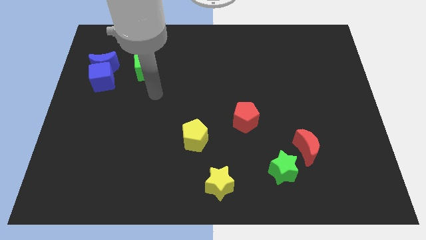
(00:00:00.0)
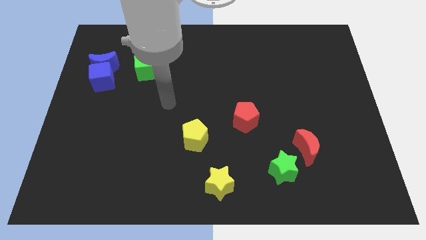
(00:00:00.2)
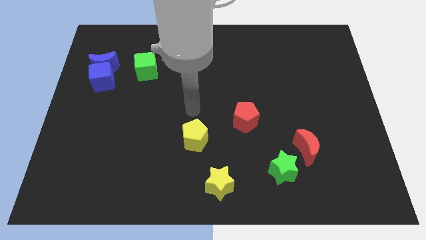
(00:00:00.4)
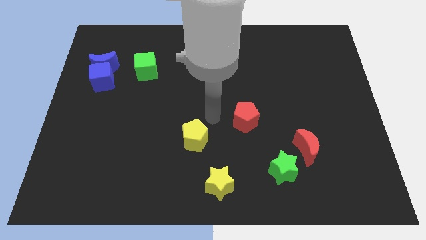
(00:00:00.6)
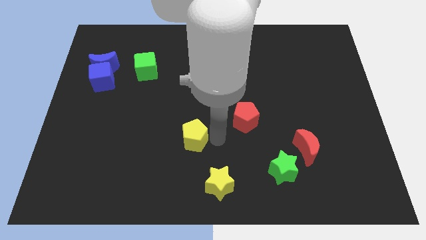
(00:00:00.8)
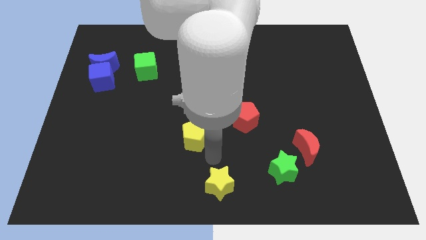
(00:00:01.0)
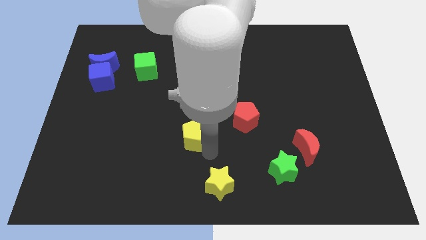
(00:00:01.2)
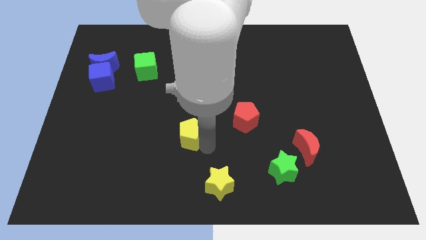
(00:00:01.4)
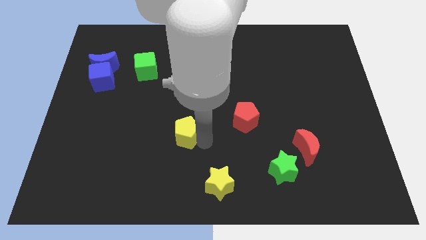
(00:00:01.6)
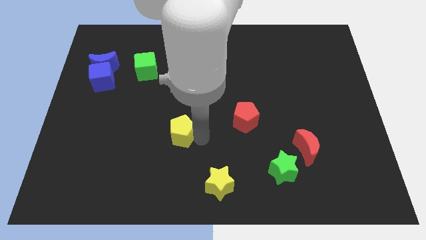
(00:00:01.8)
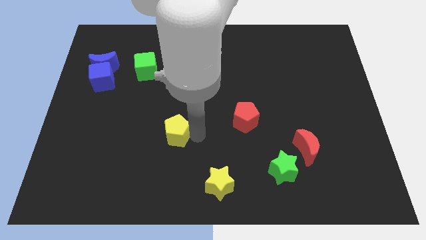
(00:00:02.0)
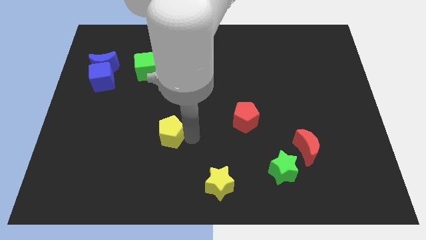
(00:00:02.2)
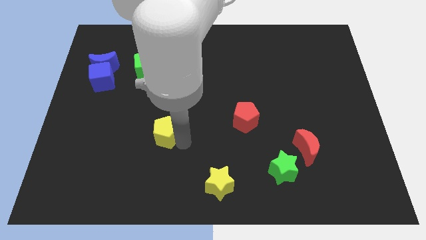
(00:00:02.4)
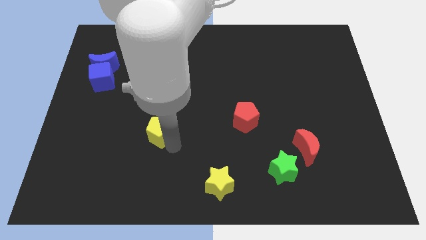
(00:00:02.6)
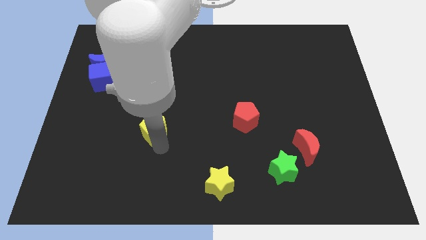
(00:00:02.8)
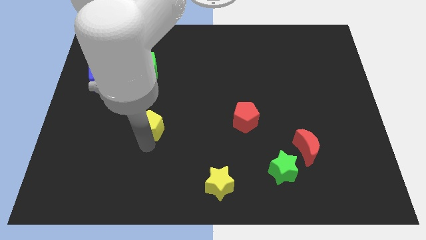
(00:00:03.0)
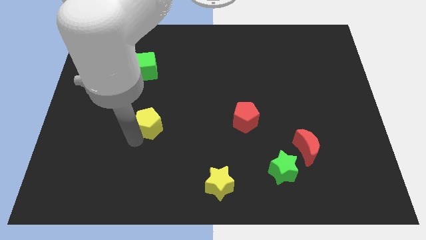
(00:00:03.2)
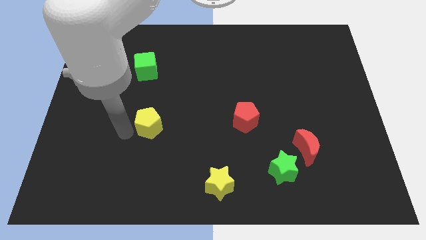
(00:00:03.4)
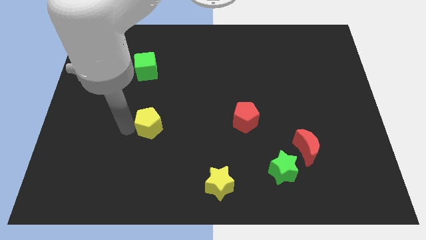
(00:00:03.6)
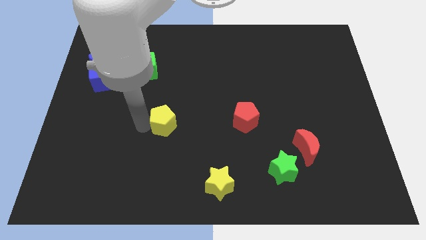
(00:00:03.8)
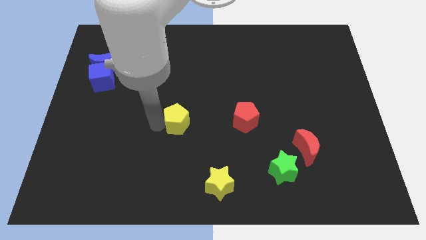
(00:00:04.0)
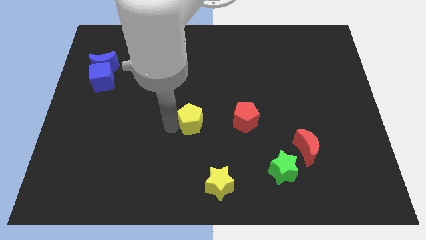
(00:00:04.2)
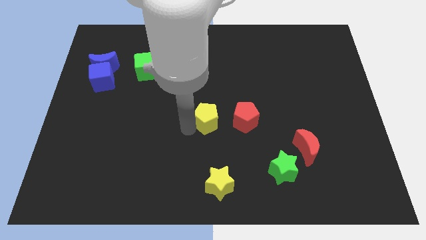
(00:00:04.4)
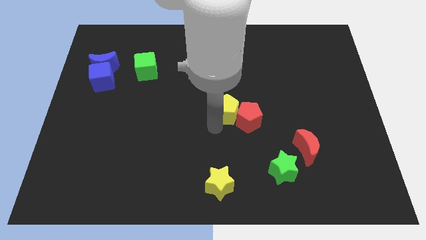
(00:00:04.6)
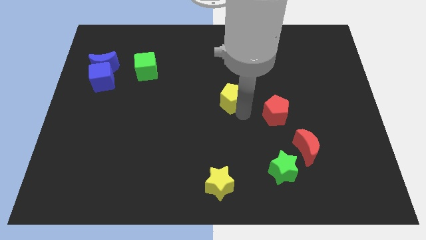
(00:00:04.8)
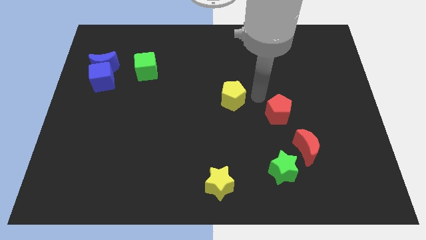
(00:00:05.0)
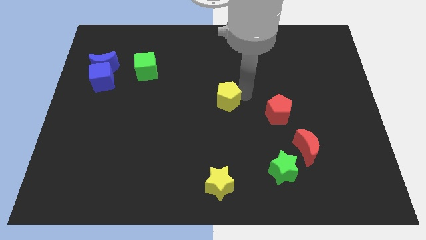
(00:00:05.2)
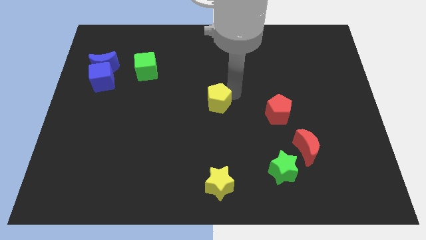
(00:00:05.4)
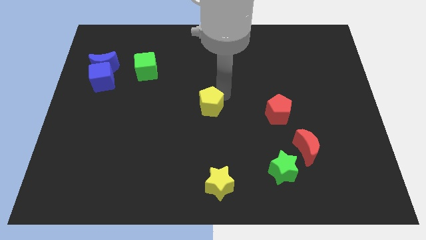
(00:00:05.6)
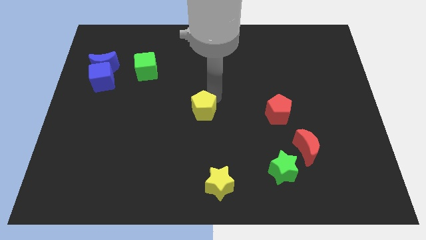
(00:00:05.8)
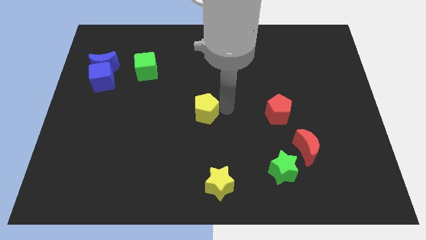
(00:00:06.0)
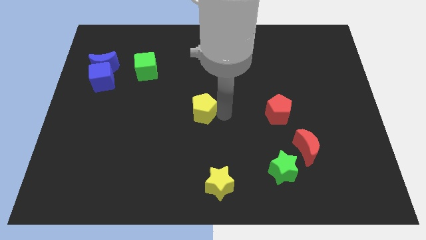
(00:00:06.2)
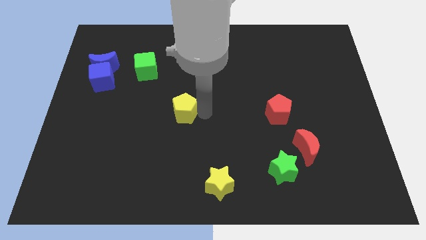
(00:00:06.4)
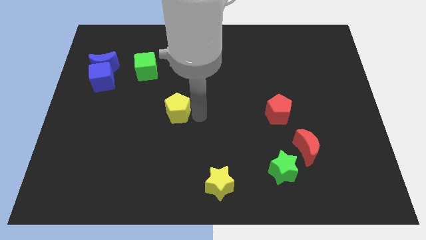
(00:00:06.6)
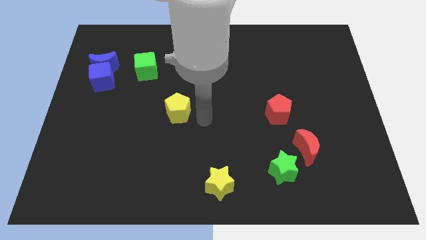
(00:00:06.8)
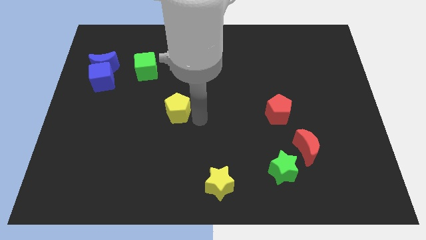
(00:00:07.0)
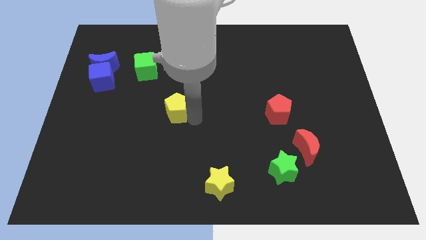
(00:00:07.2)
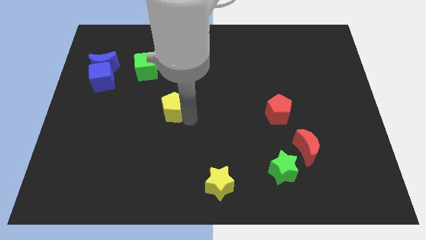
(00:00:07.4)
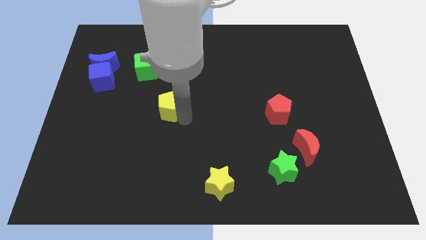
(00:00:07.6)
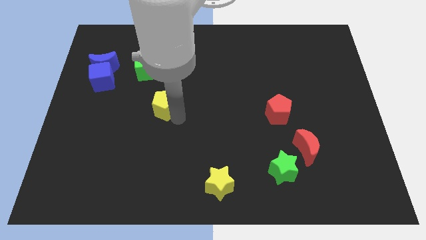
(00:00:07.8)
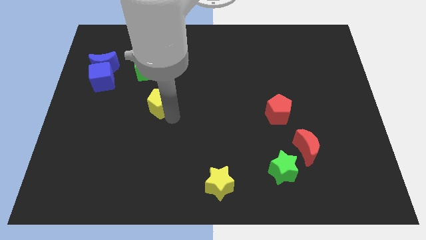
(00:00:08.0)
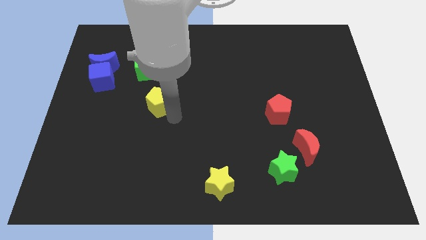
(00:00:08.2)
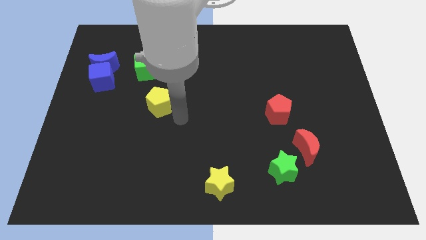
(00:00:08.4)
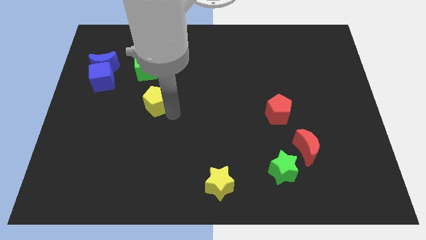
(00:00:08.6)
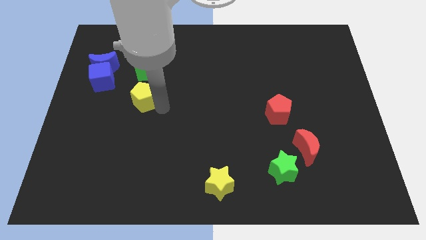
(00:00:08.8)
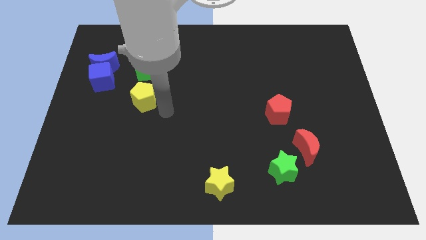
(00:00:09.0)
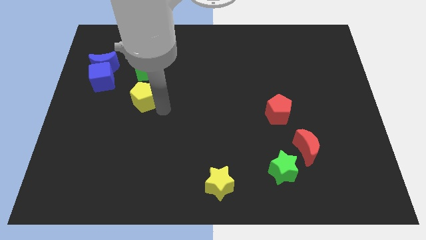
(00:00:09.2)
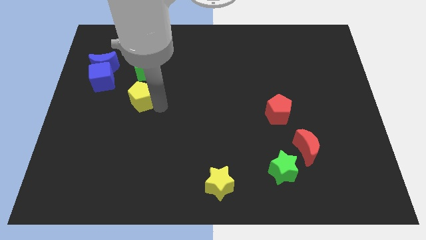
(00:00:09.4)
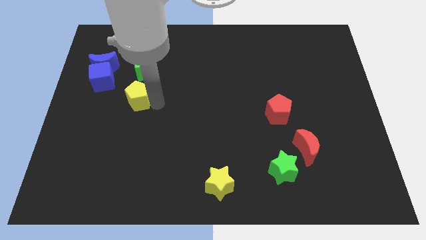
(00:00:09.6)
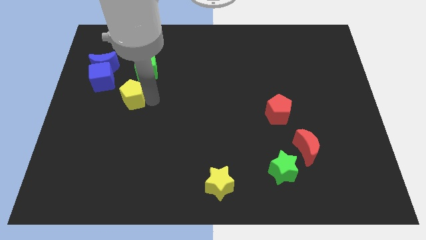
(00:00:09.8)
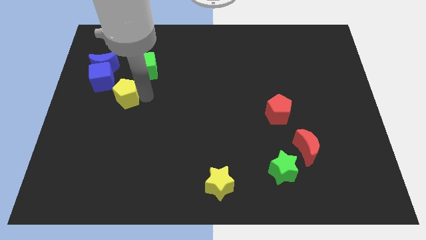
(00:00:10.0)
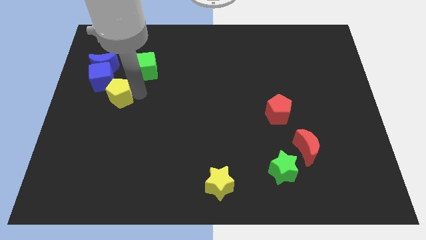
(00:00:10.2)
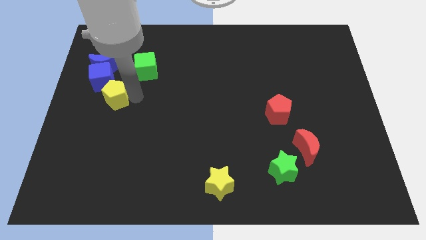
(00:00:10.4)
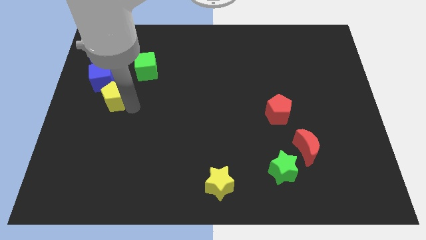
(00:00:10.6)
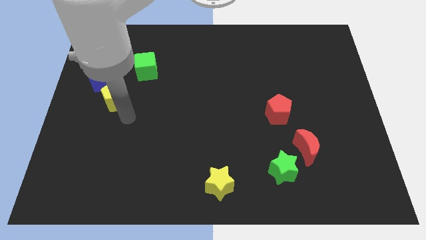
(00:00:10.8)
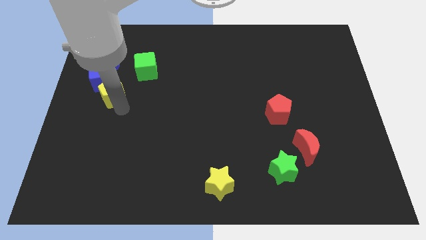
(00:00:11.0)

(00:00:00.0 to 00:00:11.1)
put the yellow pentagon close to the blue cube
